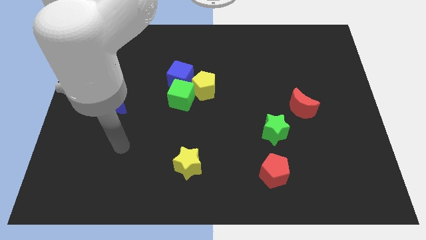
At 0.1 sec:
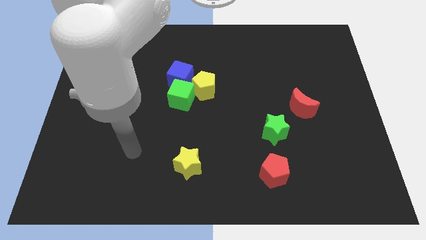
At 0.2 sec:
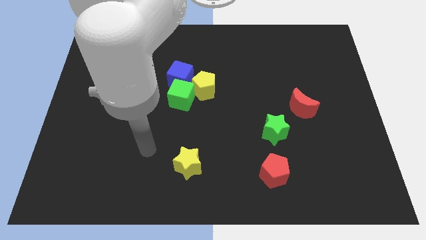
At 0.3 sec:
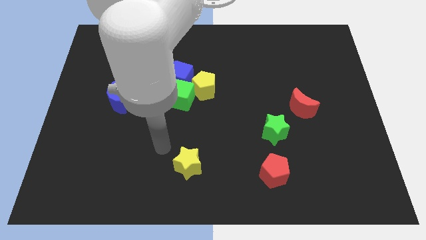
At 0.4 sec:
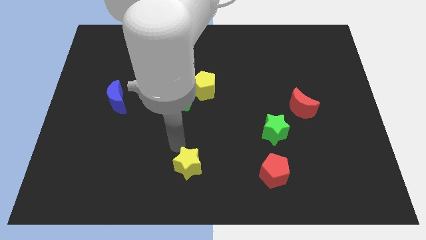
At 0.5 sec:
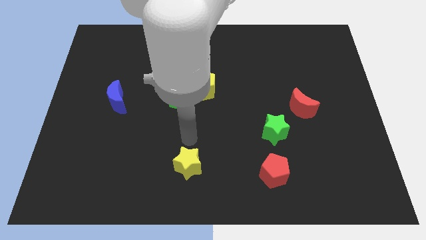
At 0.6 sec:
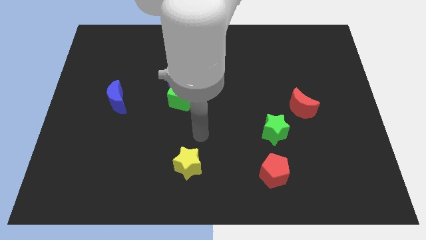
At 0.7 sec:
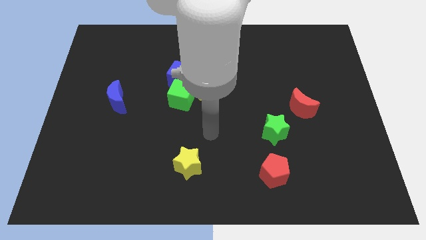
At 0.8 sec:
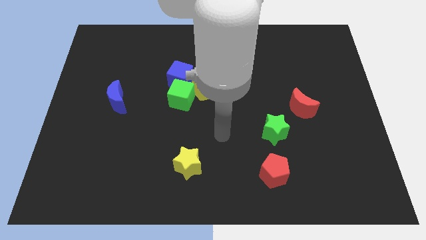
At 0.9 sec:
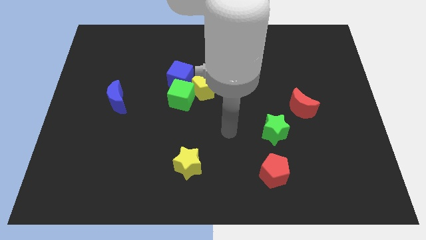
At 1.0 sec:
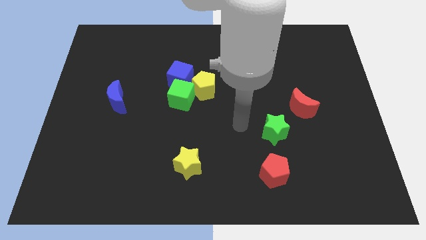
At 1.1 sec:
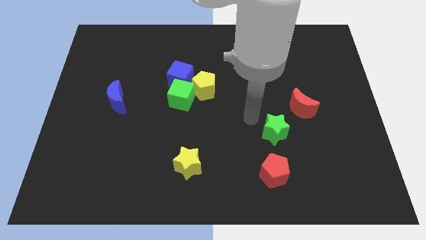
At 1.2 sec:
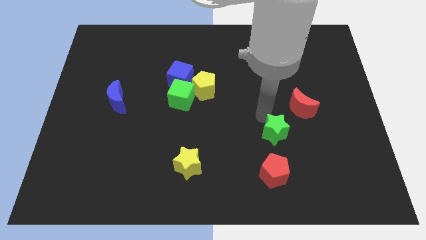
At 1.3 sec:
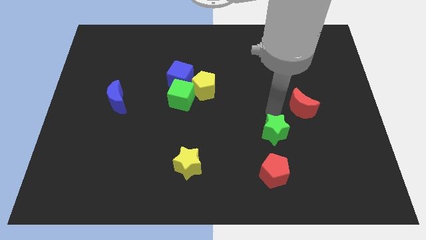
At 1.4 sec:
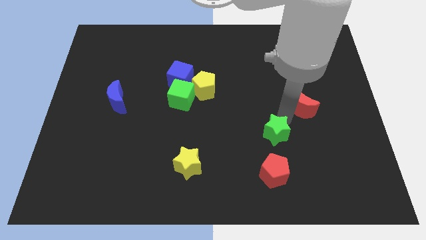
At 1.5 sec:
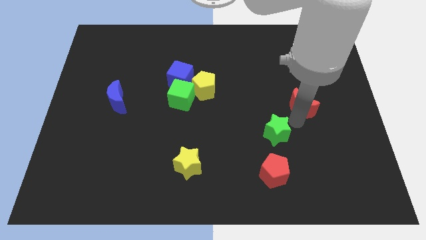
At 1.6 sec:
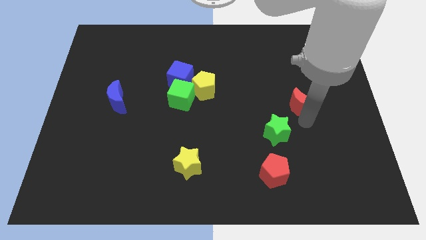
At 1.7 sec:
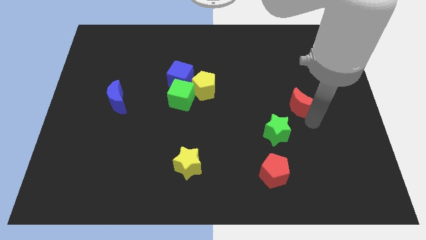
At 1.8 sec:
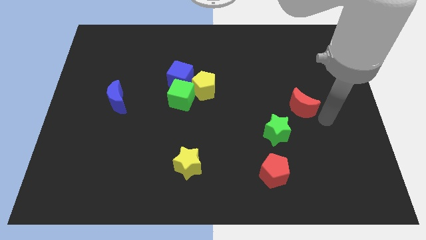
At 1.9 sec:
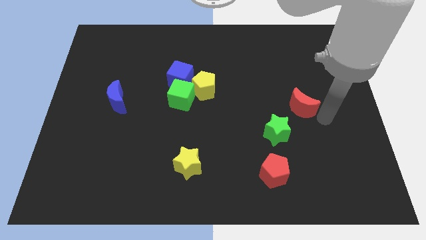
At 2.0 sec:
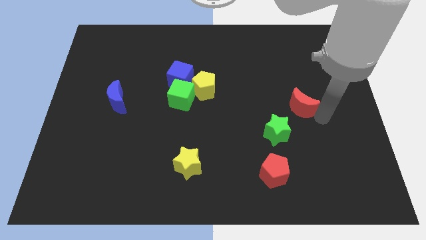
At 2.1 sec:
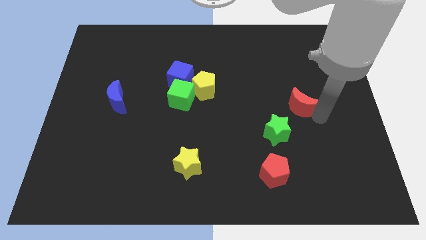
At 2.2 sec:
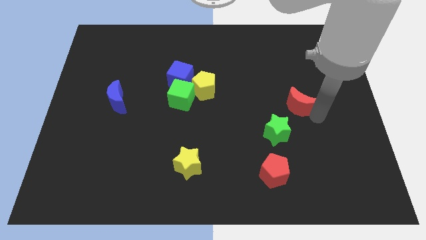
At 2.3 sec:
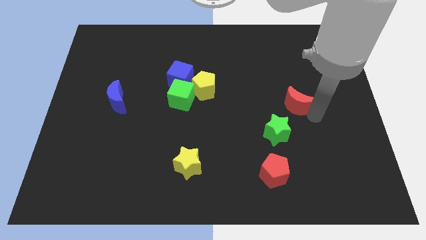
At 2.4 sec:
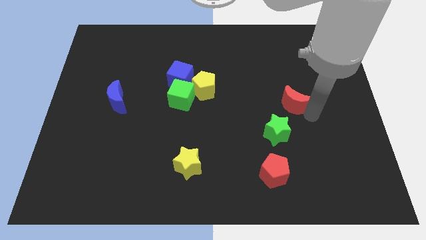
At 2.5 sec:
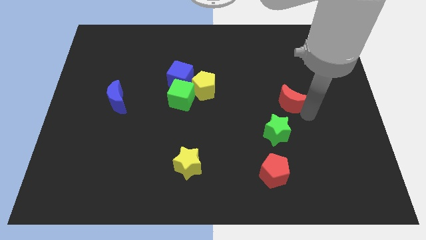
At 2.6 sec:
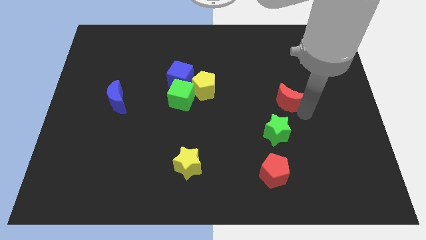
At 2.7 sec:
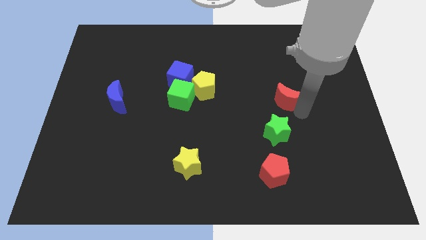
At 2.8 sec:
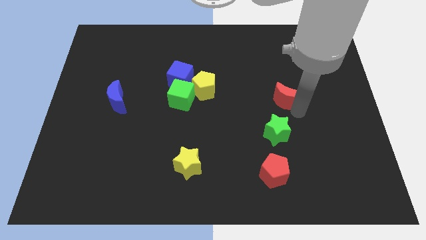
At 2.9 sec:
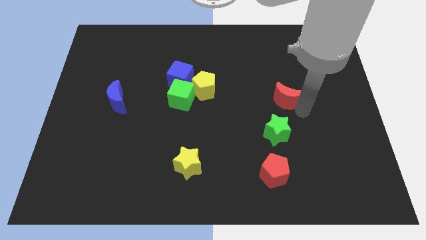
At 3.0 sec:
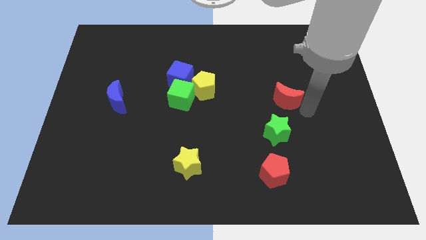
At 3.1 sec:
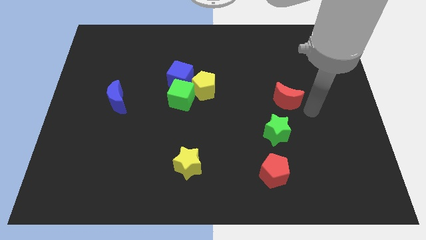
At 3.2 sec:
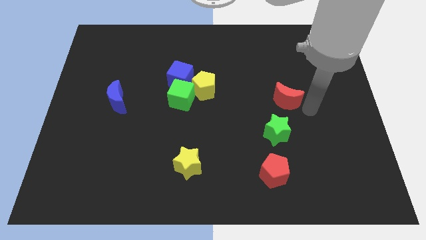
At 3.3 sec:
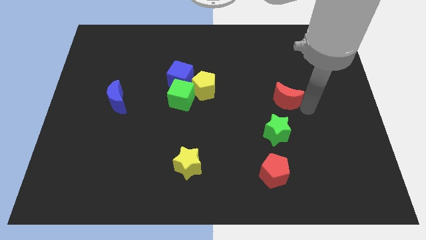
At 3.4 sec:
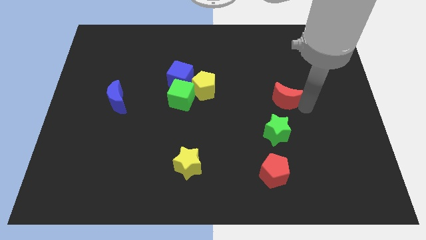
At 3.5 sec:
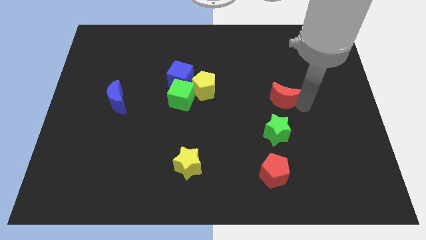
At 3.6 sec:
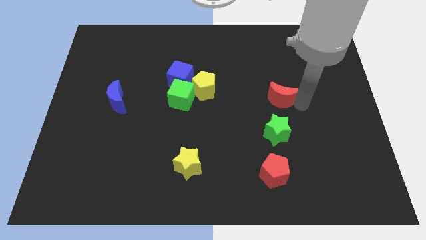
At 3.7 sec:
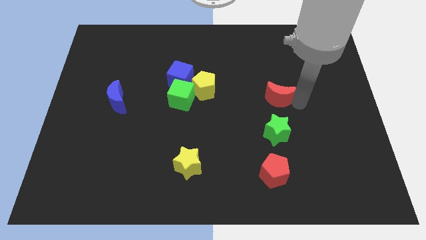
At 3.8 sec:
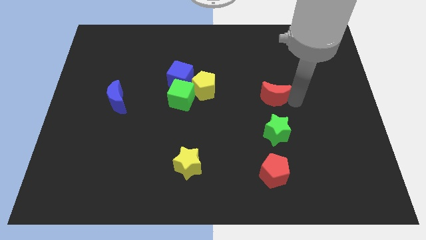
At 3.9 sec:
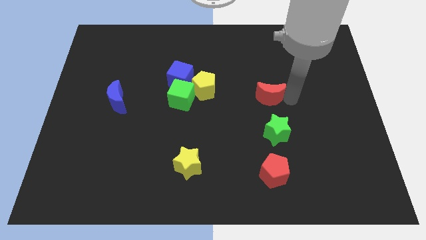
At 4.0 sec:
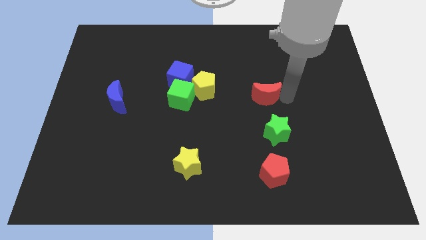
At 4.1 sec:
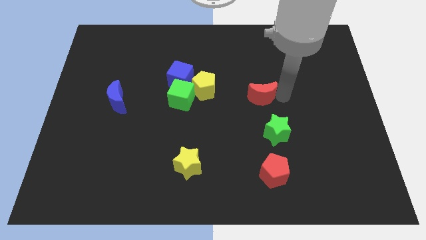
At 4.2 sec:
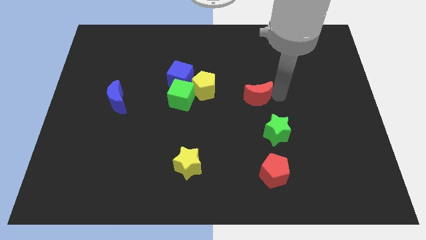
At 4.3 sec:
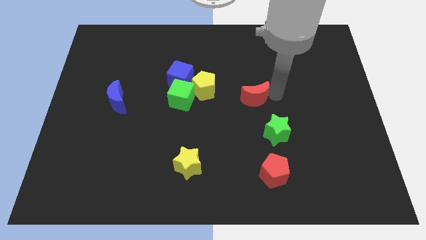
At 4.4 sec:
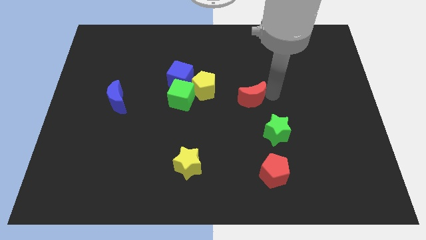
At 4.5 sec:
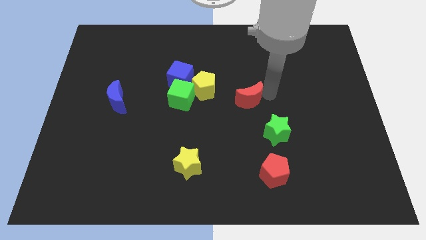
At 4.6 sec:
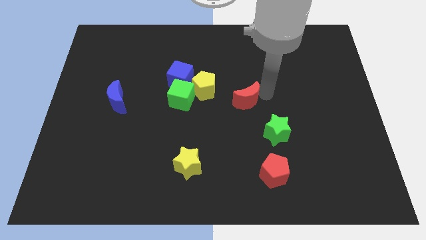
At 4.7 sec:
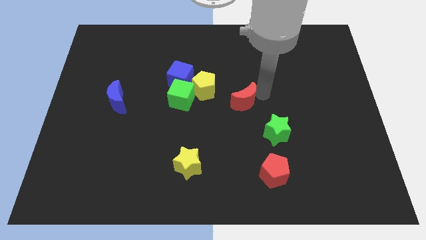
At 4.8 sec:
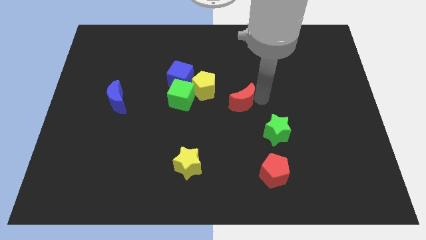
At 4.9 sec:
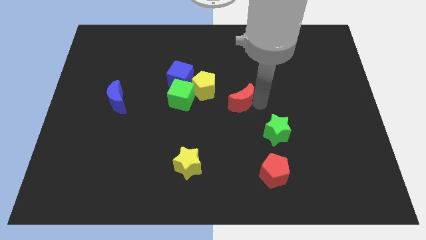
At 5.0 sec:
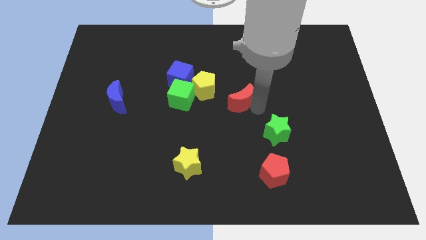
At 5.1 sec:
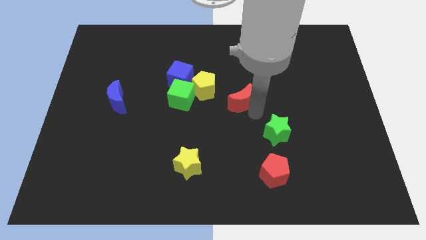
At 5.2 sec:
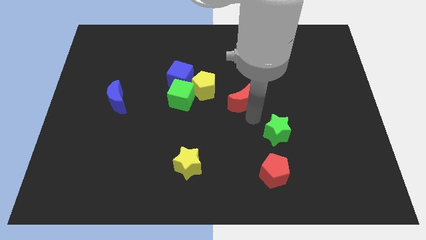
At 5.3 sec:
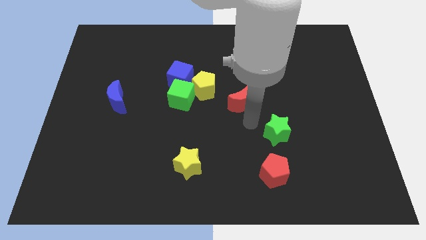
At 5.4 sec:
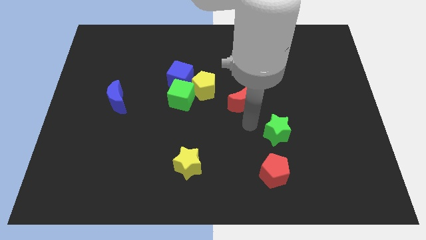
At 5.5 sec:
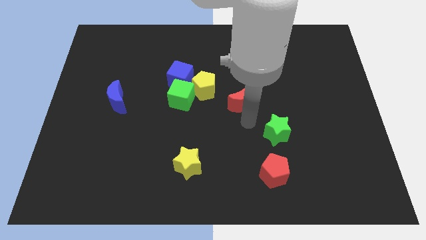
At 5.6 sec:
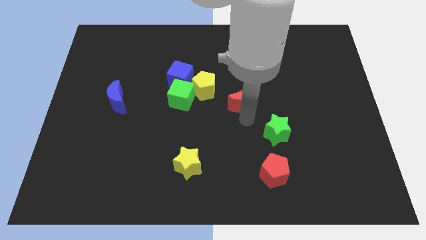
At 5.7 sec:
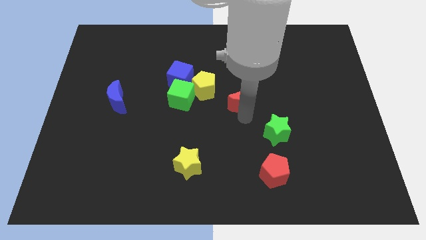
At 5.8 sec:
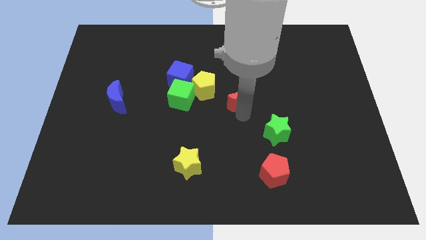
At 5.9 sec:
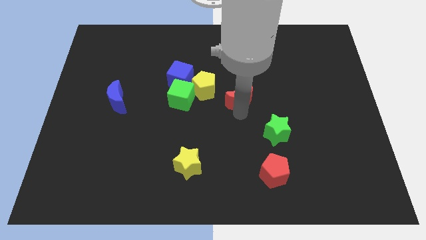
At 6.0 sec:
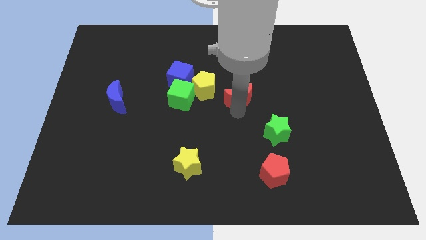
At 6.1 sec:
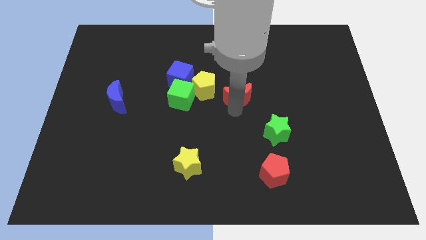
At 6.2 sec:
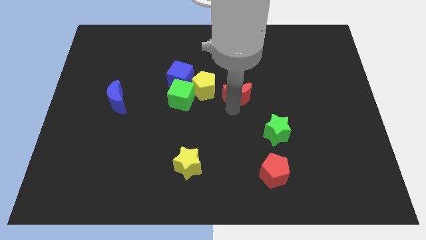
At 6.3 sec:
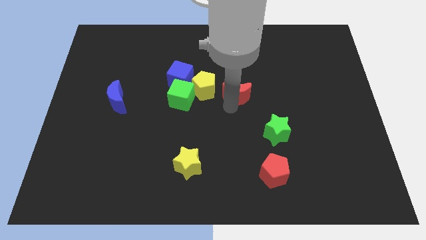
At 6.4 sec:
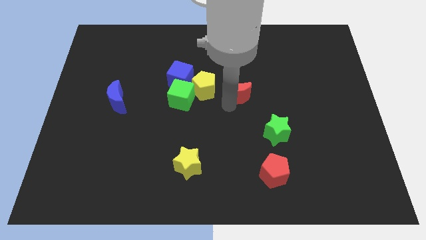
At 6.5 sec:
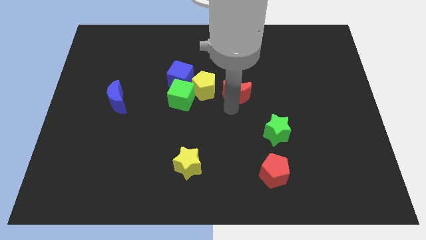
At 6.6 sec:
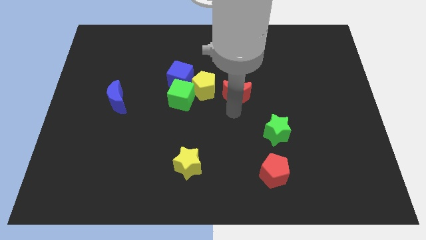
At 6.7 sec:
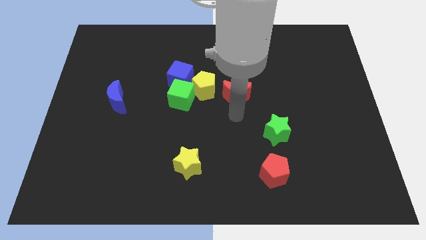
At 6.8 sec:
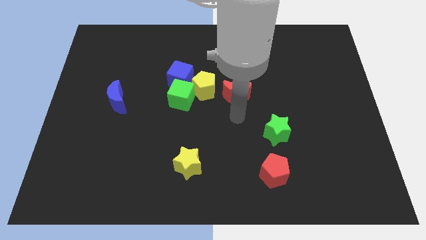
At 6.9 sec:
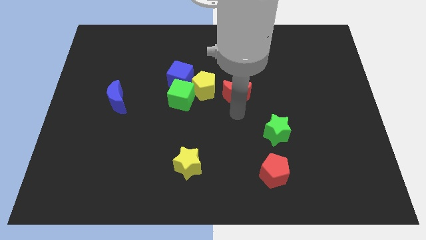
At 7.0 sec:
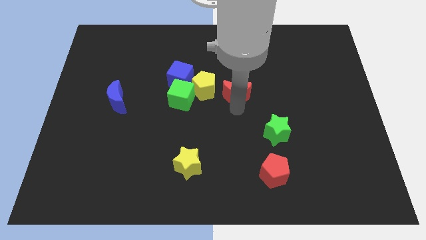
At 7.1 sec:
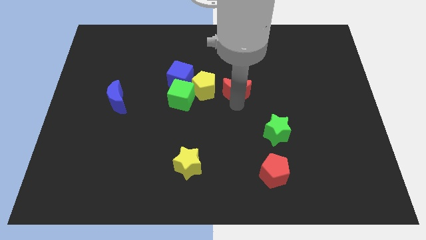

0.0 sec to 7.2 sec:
slide the red moon right of the blue cube

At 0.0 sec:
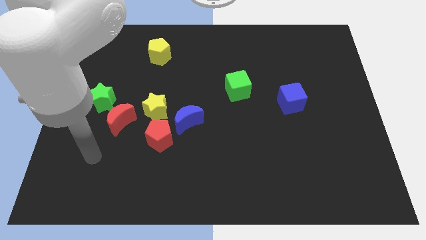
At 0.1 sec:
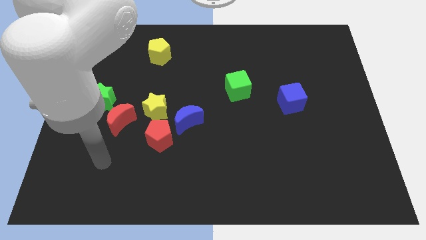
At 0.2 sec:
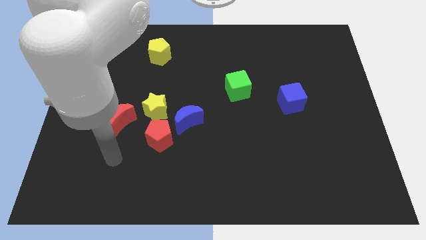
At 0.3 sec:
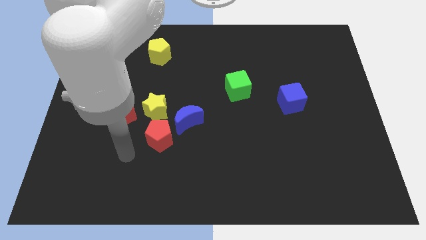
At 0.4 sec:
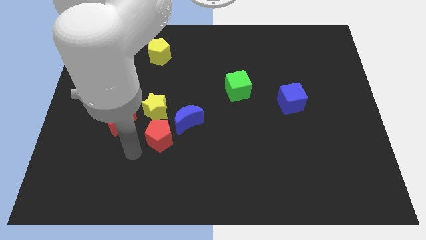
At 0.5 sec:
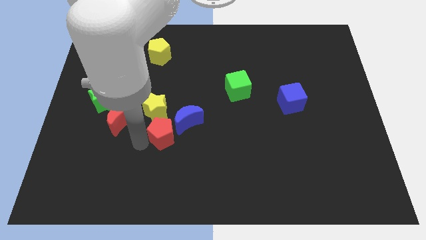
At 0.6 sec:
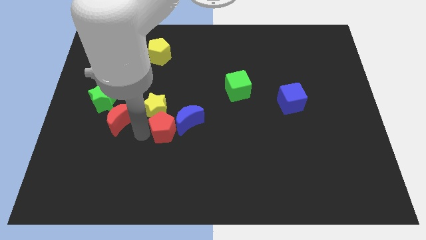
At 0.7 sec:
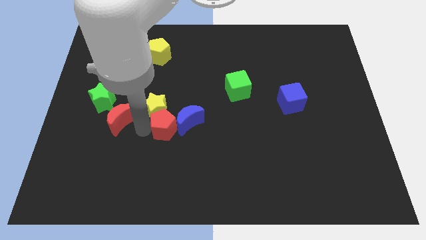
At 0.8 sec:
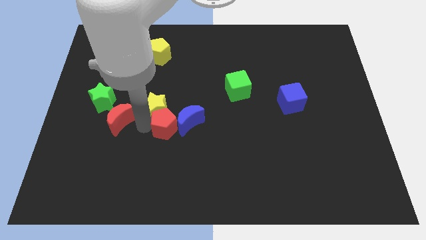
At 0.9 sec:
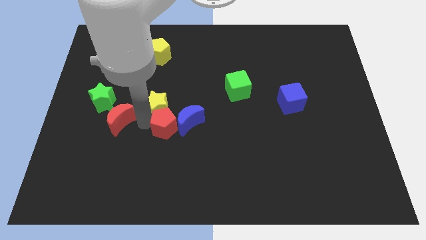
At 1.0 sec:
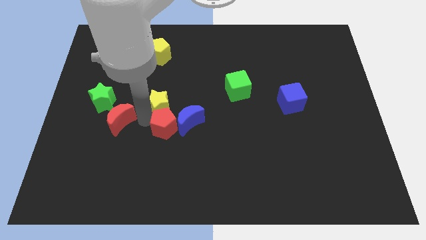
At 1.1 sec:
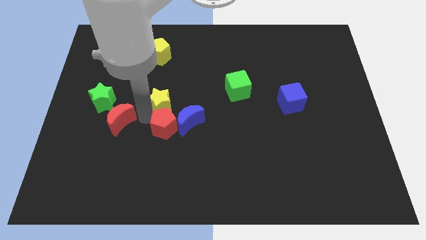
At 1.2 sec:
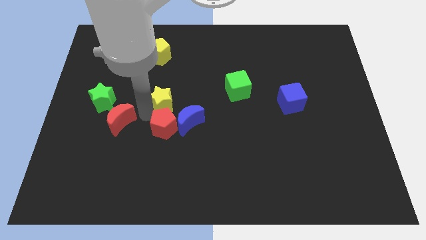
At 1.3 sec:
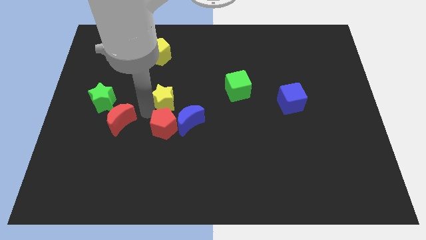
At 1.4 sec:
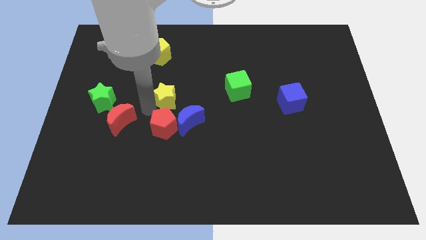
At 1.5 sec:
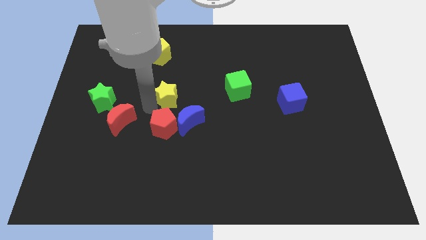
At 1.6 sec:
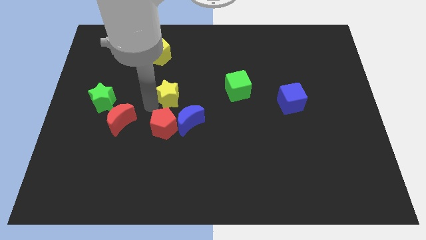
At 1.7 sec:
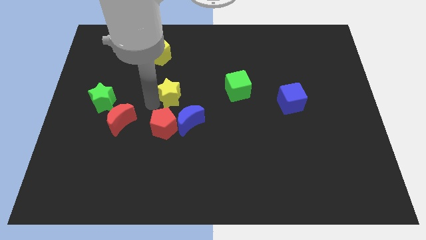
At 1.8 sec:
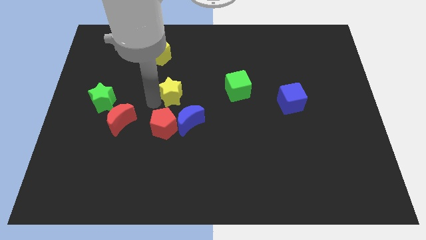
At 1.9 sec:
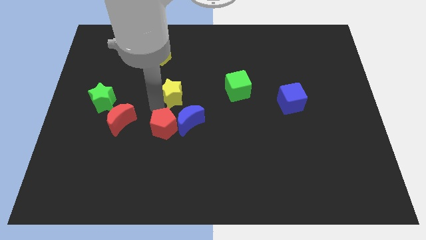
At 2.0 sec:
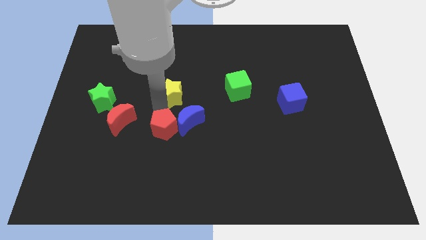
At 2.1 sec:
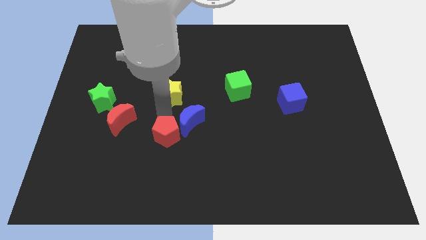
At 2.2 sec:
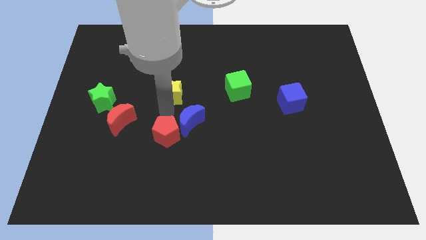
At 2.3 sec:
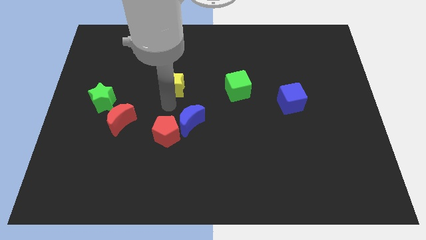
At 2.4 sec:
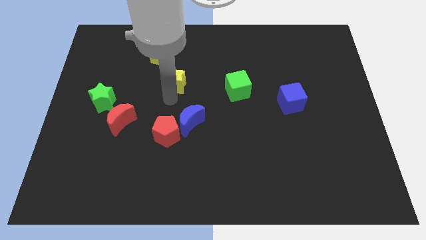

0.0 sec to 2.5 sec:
slide the yellow star diagonally down and to the right of the yellow pentagon
